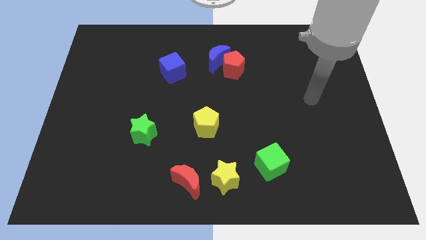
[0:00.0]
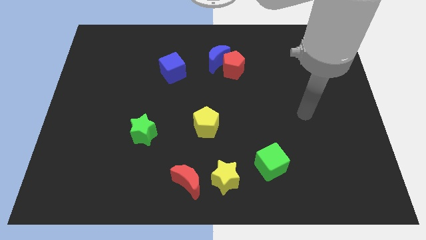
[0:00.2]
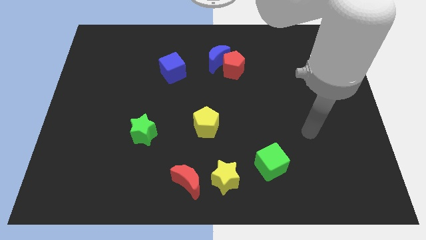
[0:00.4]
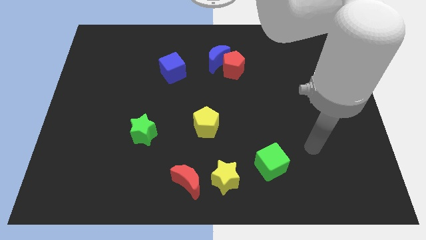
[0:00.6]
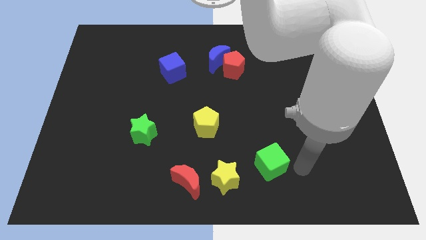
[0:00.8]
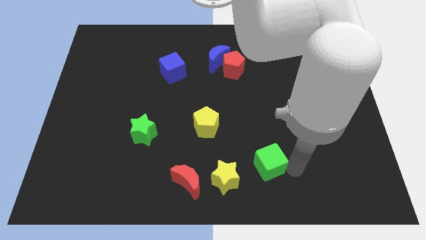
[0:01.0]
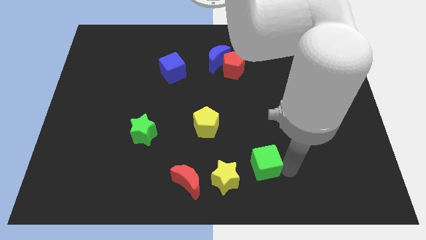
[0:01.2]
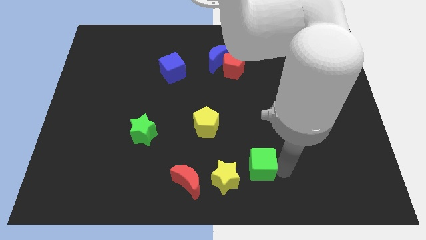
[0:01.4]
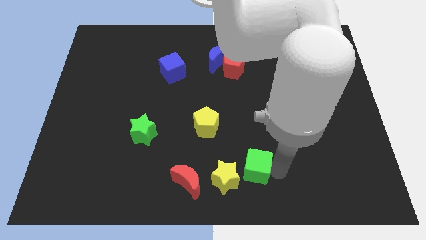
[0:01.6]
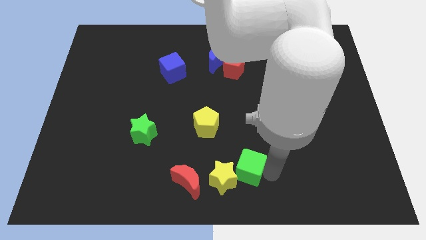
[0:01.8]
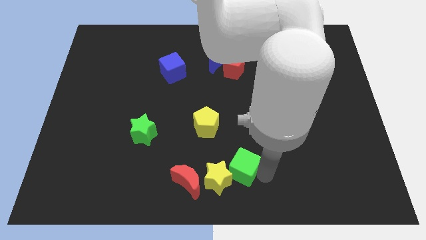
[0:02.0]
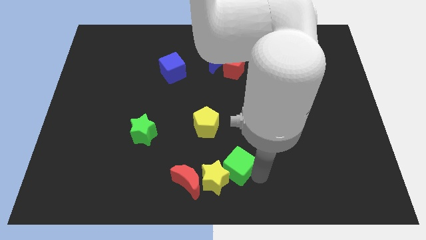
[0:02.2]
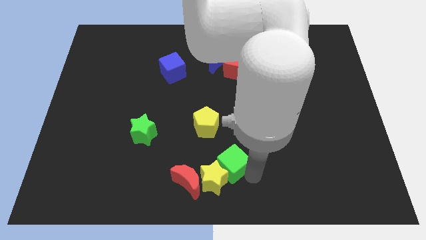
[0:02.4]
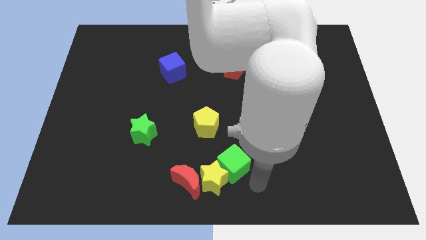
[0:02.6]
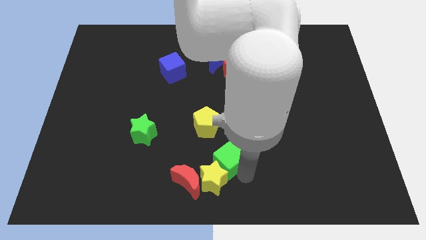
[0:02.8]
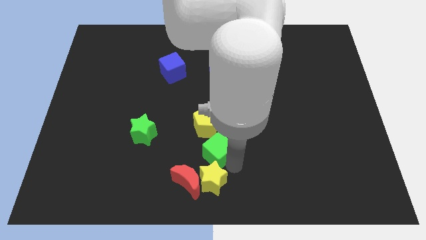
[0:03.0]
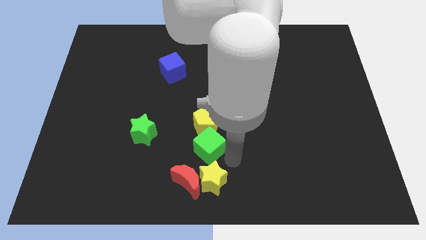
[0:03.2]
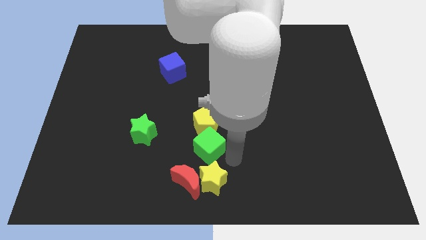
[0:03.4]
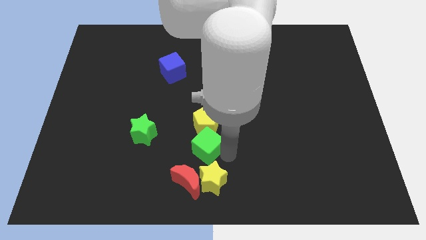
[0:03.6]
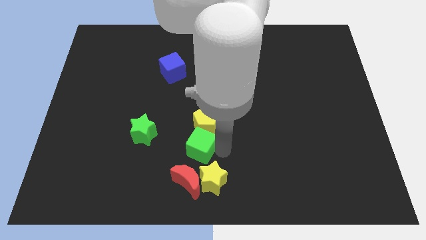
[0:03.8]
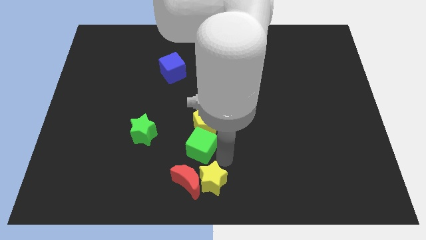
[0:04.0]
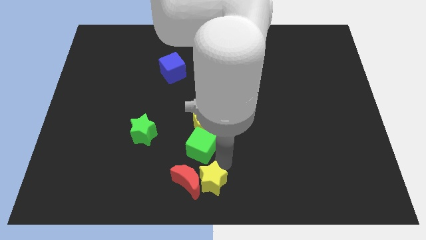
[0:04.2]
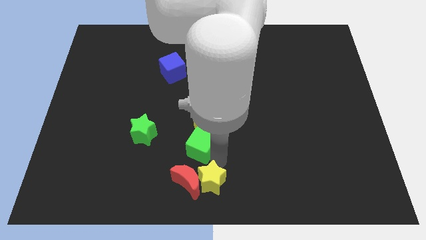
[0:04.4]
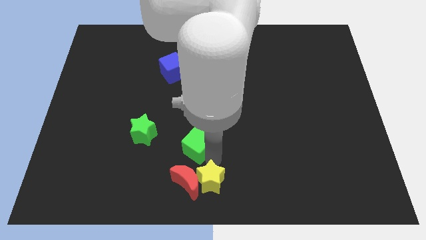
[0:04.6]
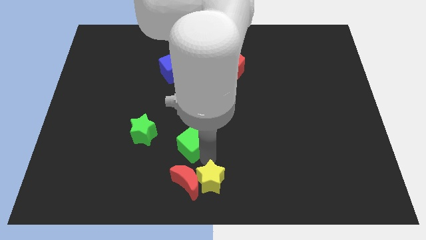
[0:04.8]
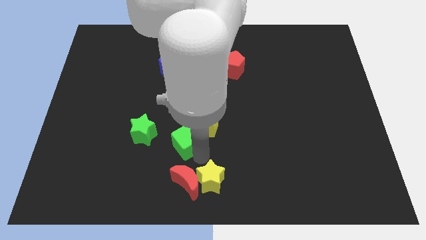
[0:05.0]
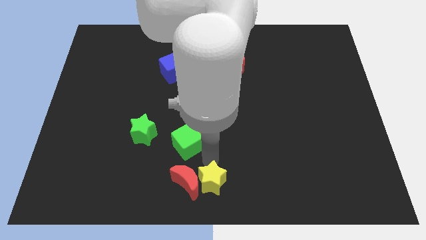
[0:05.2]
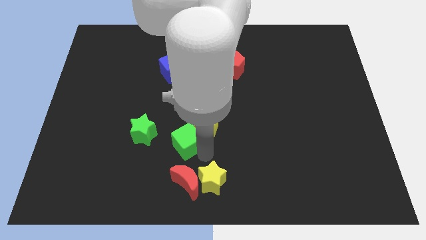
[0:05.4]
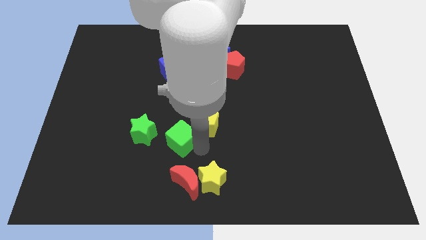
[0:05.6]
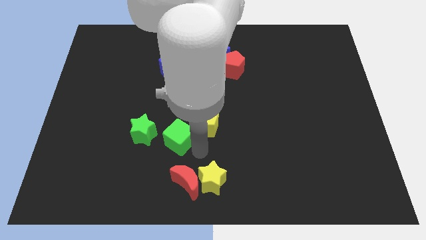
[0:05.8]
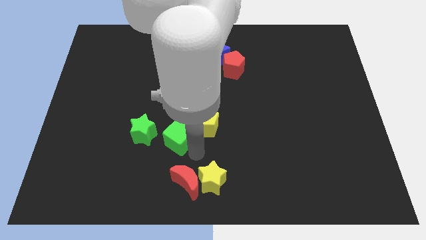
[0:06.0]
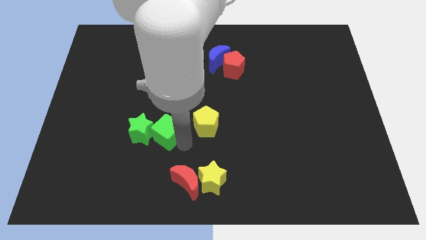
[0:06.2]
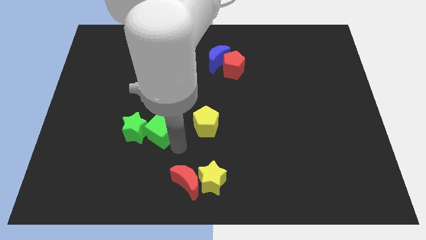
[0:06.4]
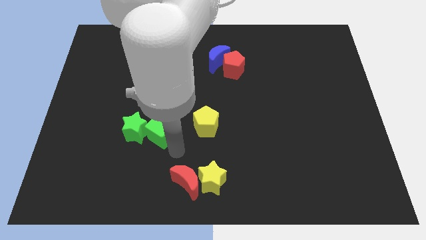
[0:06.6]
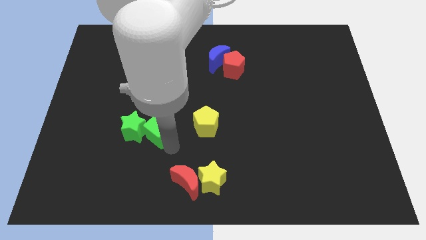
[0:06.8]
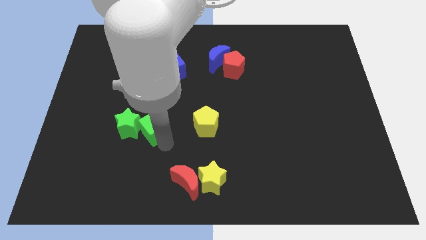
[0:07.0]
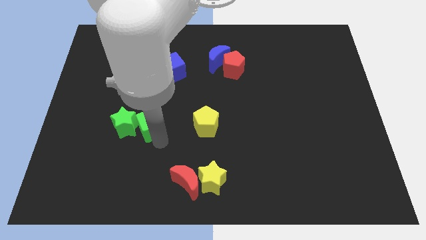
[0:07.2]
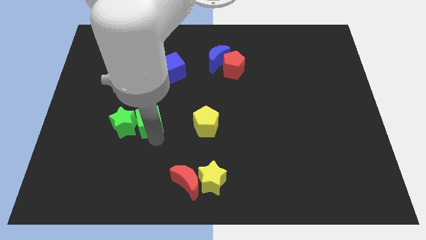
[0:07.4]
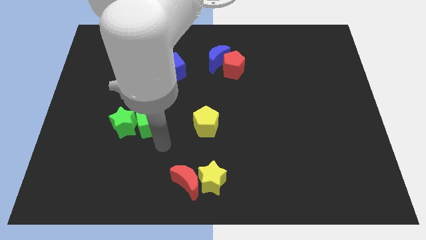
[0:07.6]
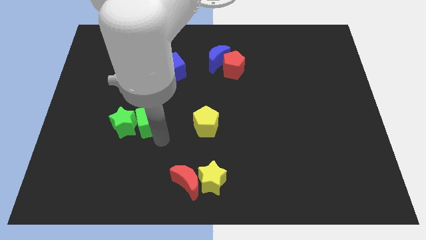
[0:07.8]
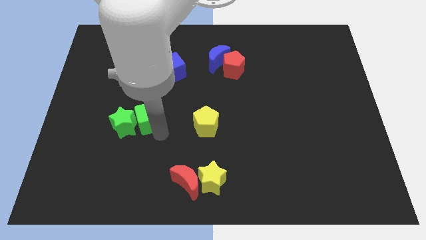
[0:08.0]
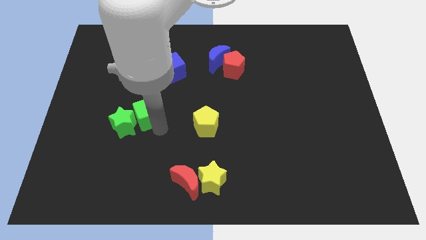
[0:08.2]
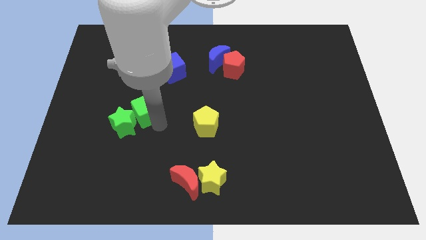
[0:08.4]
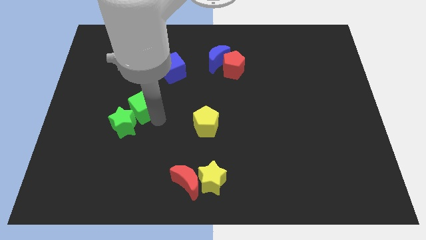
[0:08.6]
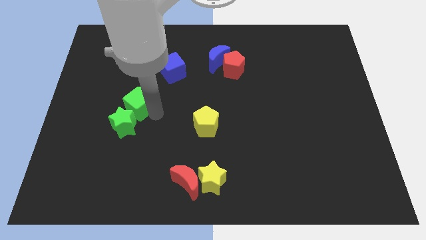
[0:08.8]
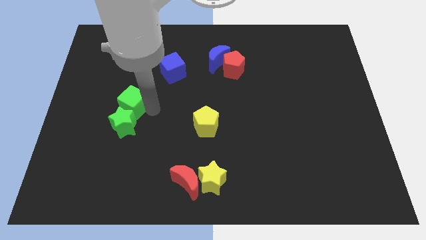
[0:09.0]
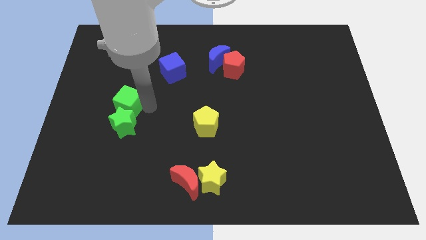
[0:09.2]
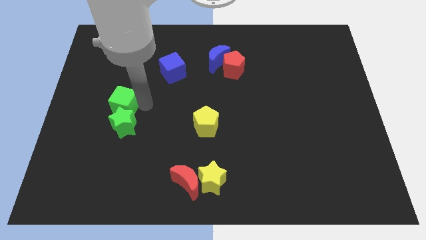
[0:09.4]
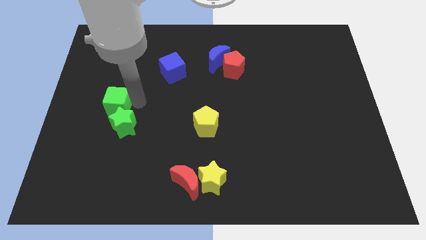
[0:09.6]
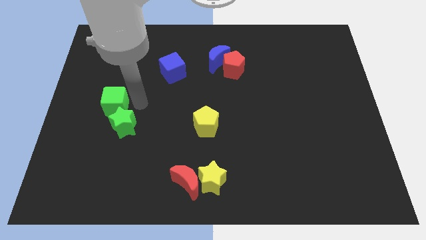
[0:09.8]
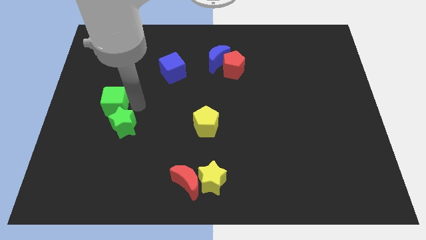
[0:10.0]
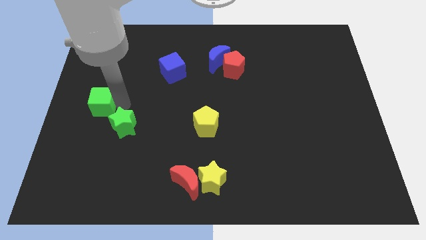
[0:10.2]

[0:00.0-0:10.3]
push the green cube to the center left

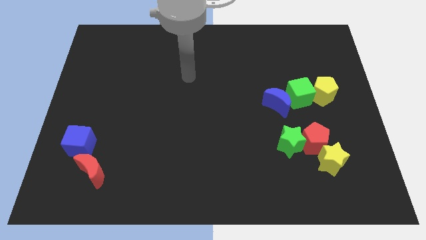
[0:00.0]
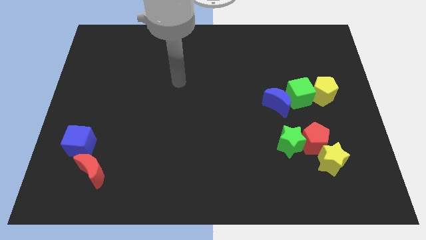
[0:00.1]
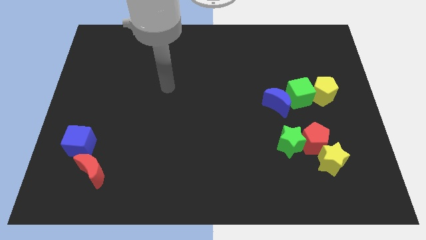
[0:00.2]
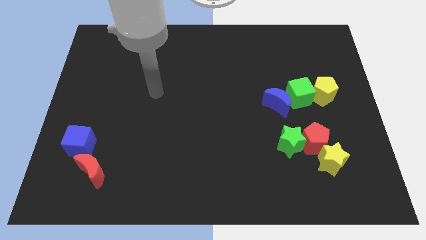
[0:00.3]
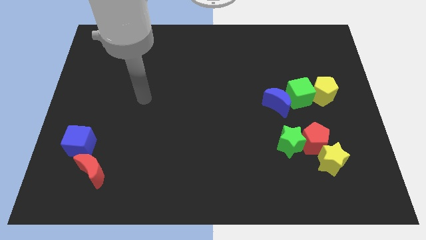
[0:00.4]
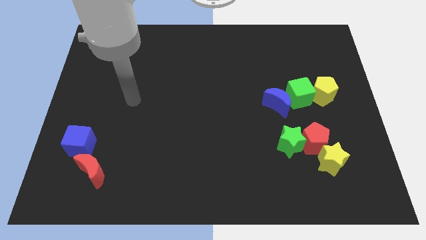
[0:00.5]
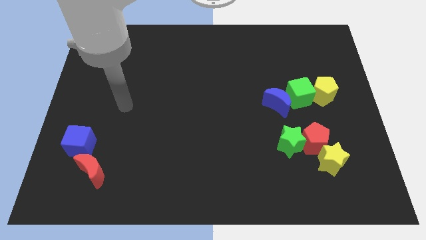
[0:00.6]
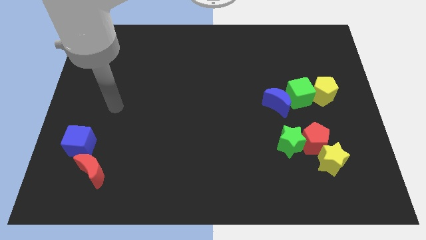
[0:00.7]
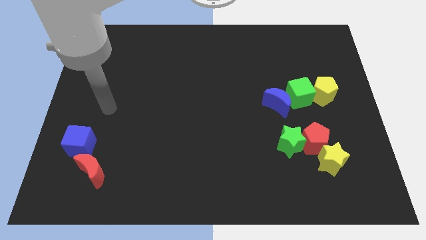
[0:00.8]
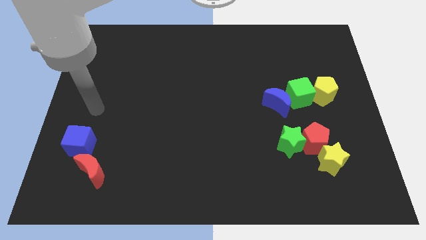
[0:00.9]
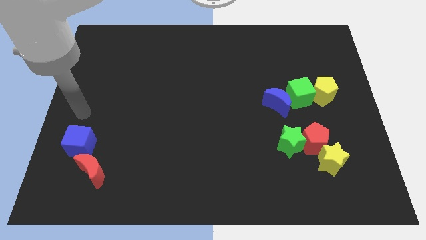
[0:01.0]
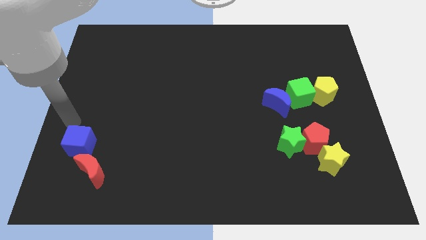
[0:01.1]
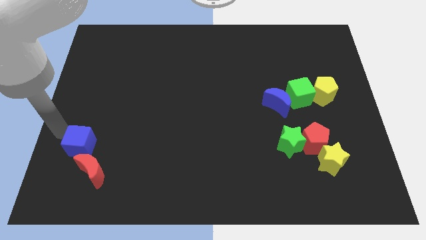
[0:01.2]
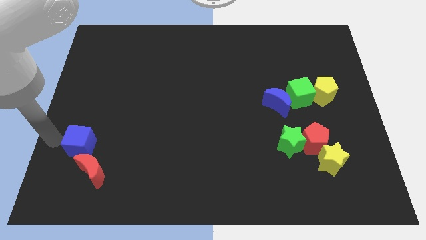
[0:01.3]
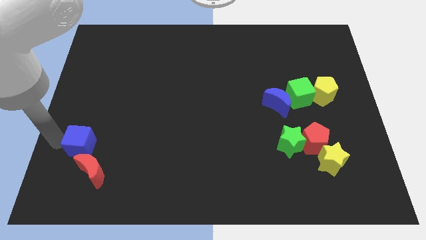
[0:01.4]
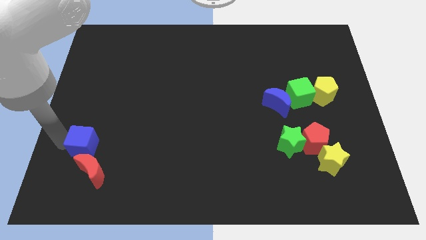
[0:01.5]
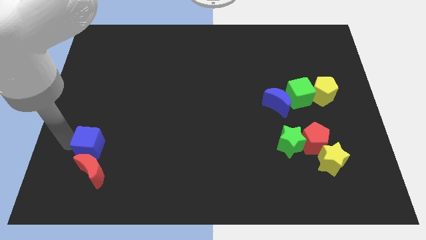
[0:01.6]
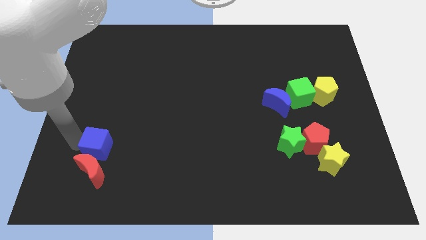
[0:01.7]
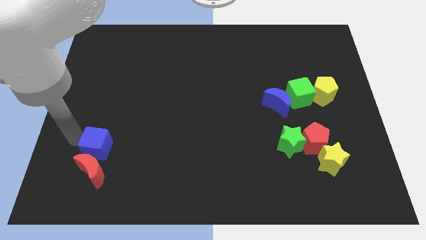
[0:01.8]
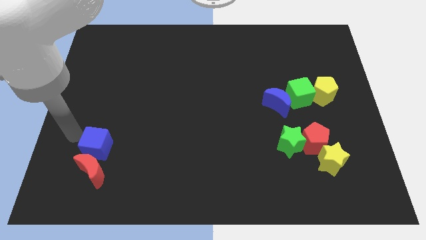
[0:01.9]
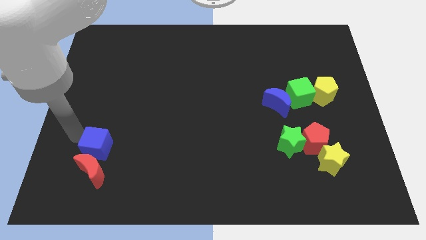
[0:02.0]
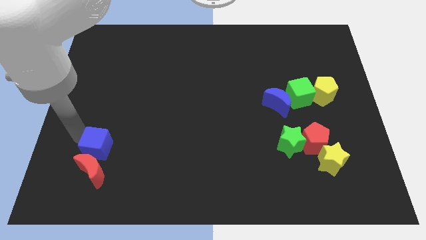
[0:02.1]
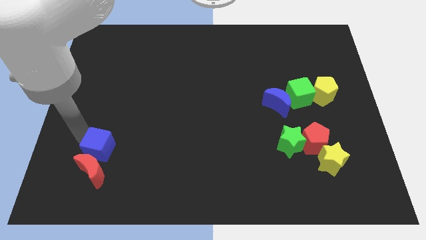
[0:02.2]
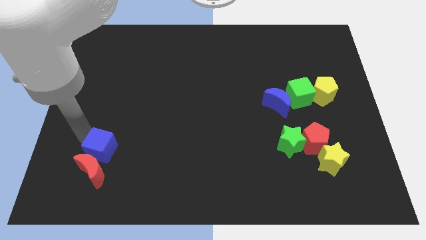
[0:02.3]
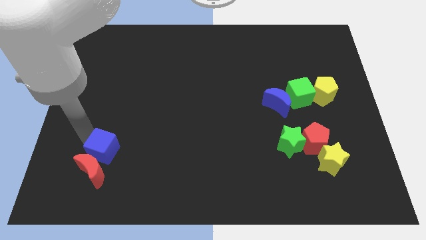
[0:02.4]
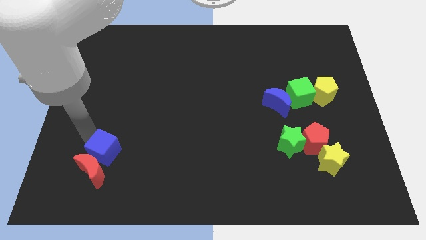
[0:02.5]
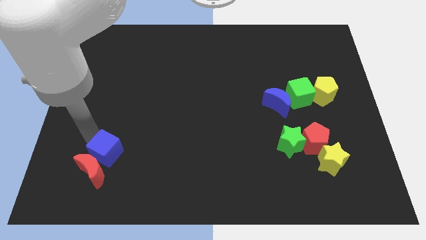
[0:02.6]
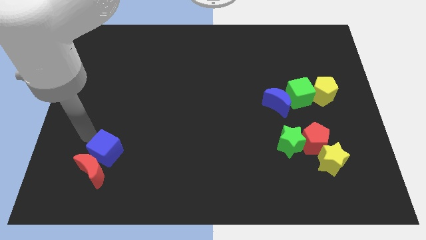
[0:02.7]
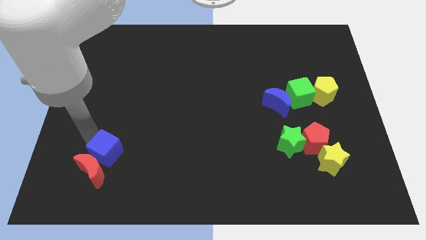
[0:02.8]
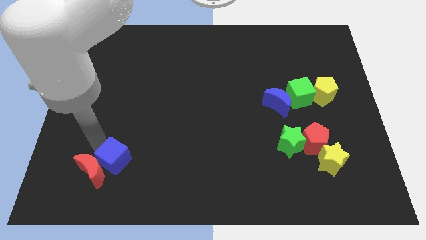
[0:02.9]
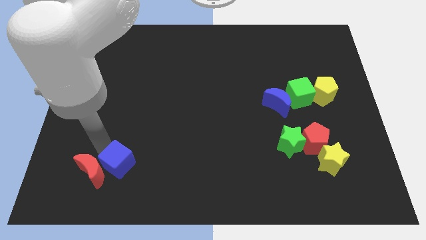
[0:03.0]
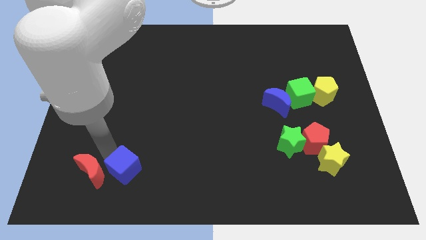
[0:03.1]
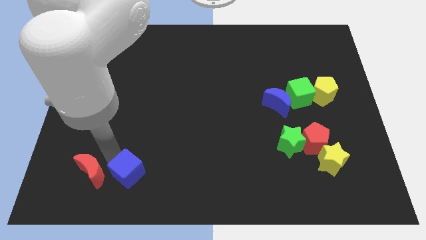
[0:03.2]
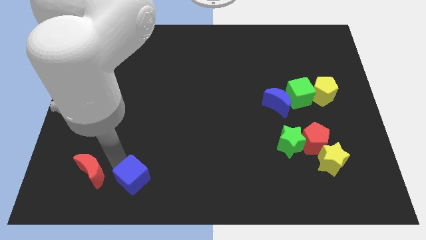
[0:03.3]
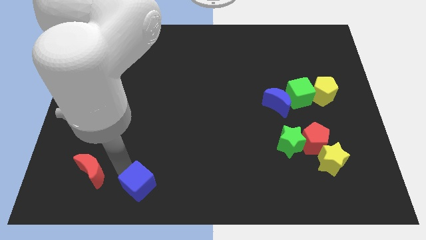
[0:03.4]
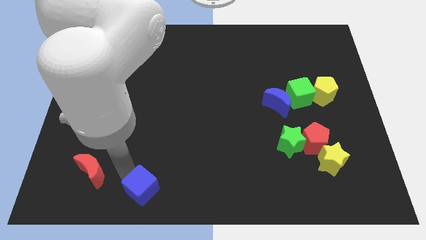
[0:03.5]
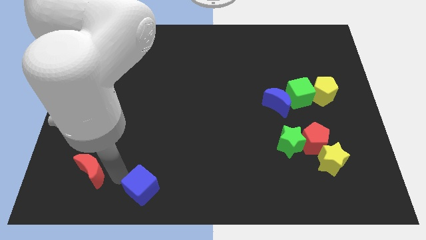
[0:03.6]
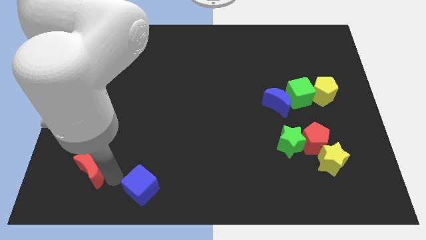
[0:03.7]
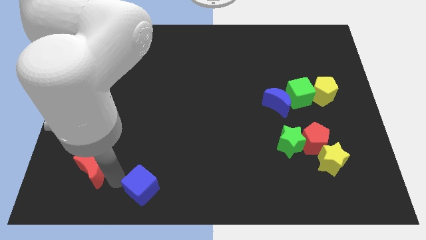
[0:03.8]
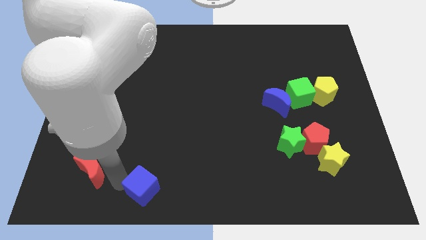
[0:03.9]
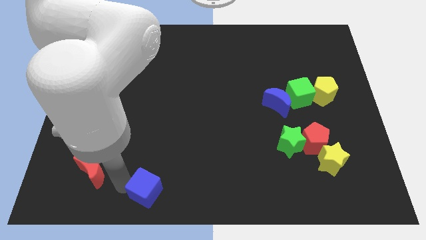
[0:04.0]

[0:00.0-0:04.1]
move the blue cube to the bottom
